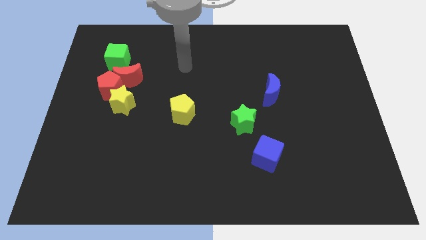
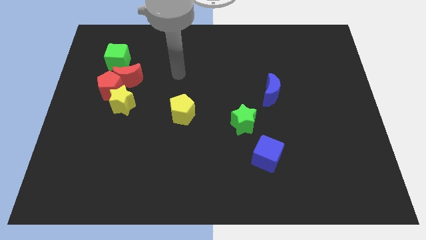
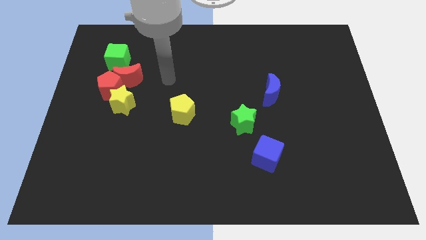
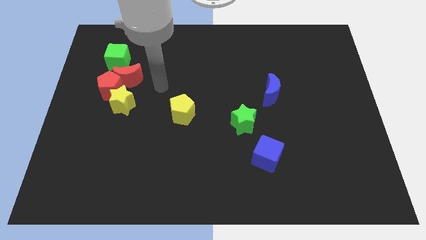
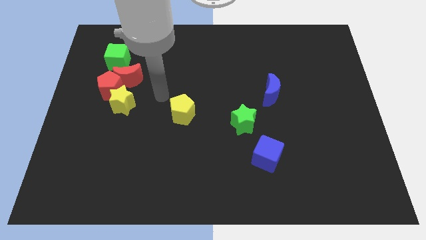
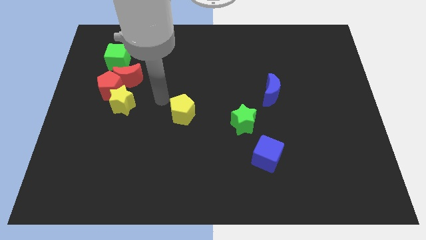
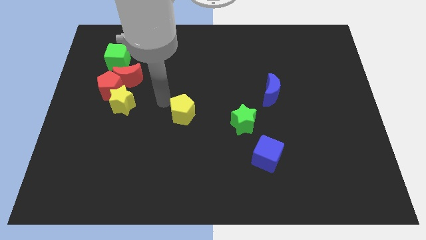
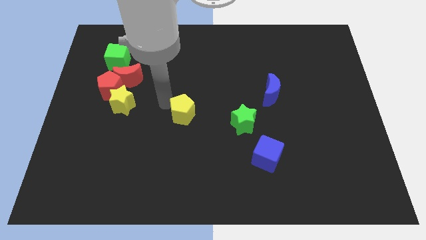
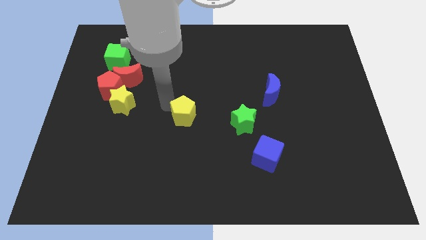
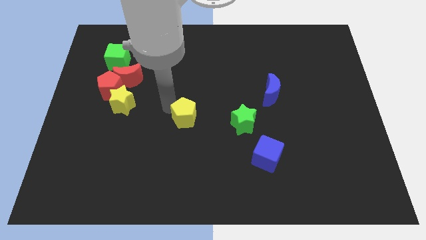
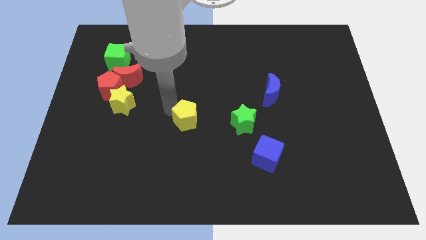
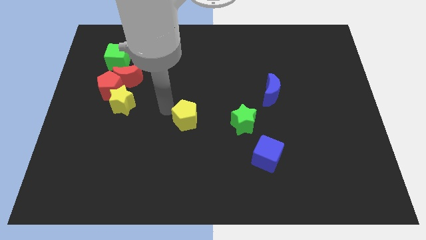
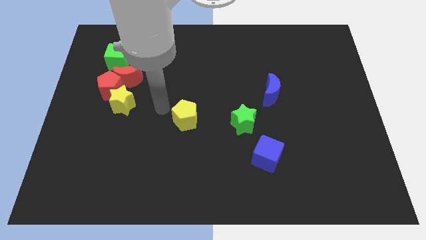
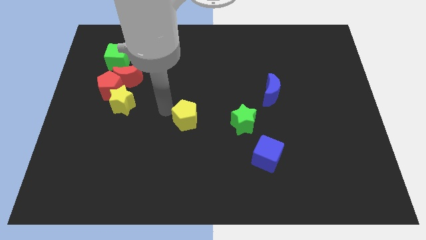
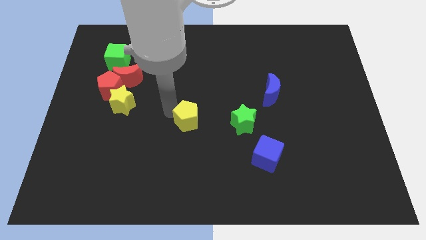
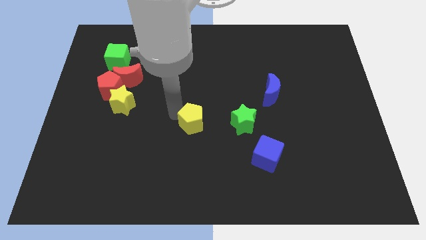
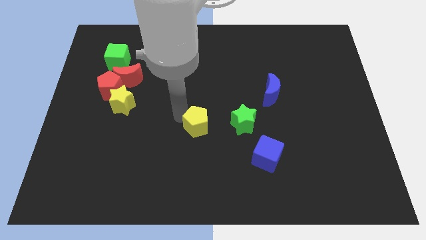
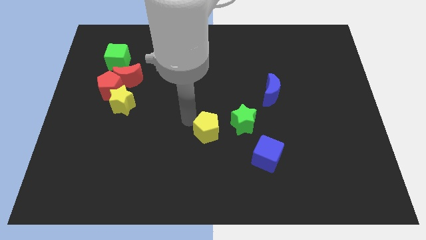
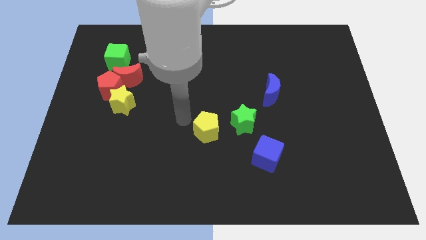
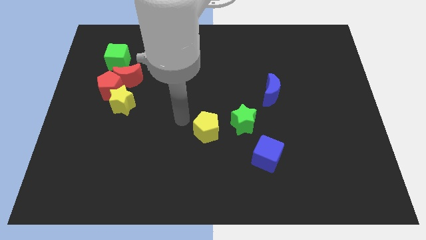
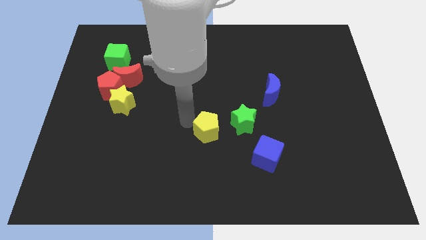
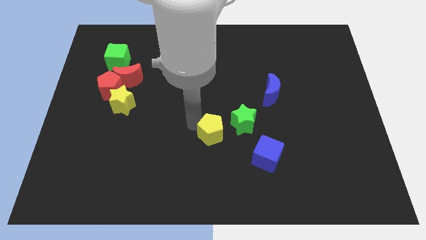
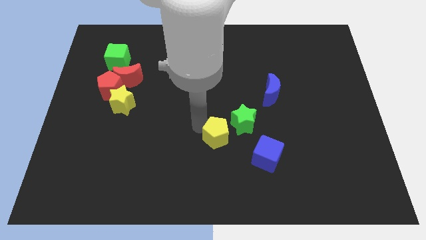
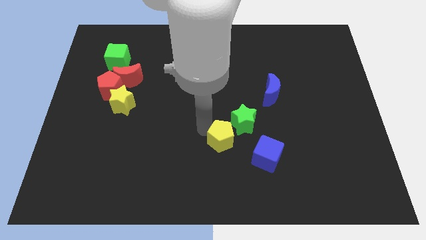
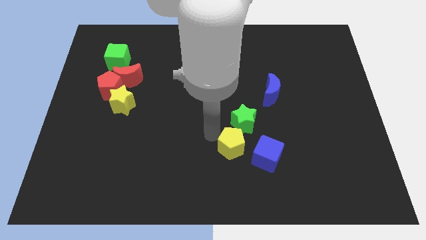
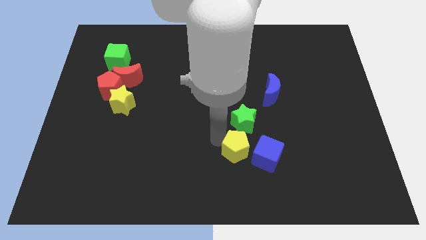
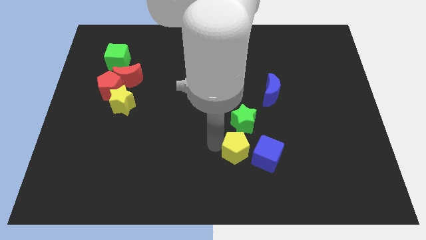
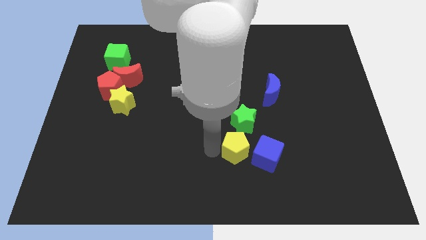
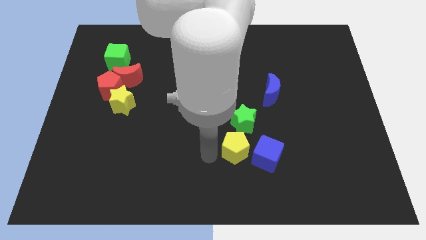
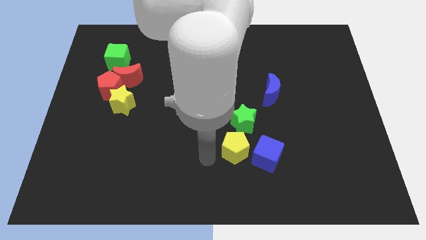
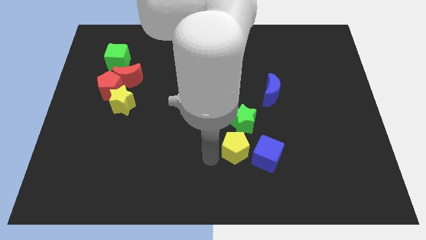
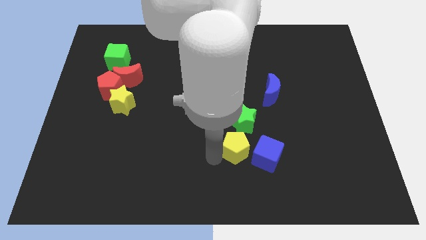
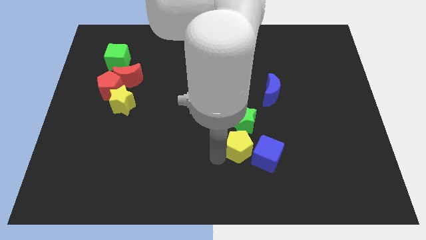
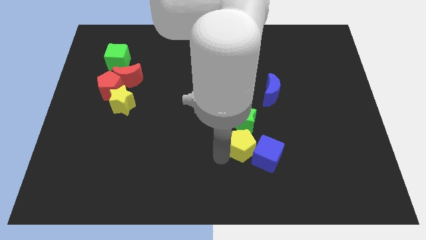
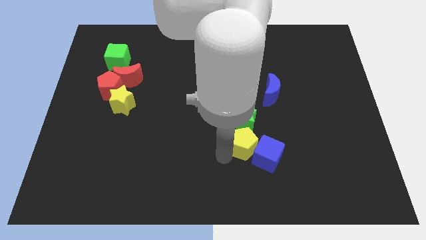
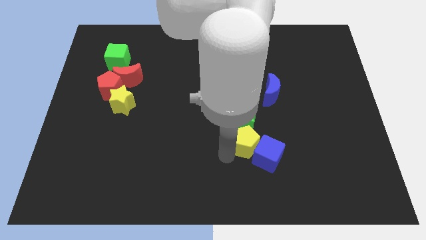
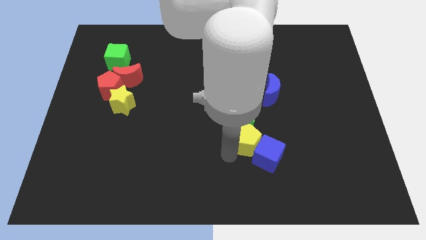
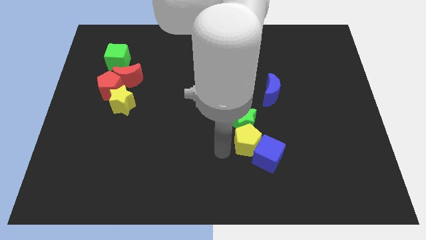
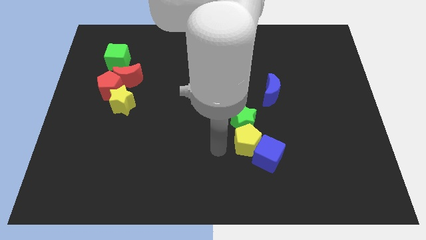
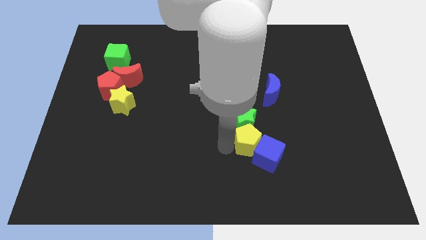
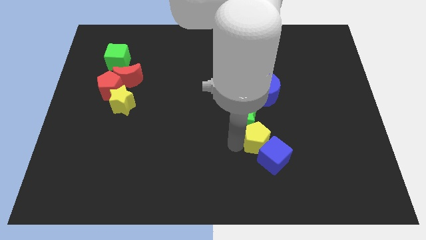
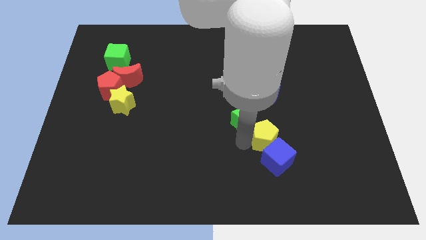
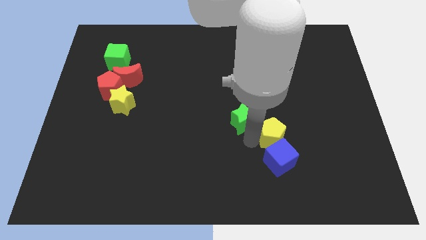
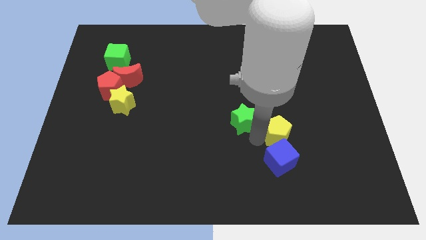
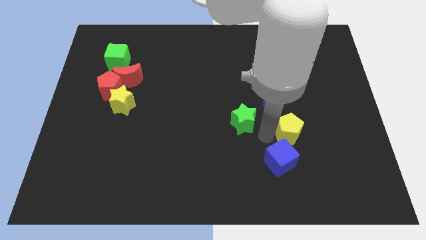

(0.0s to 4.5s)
slide the yellow pentagon to the right

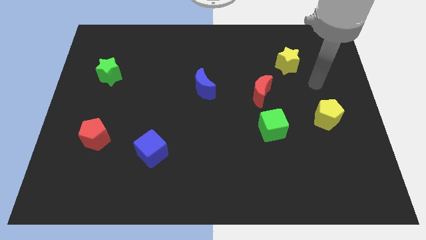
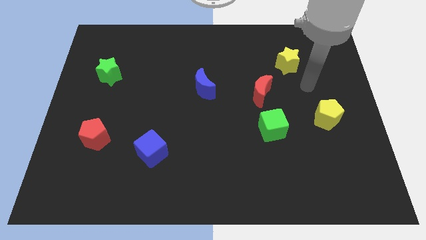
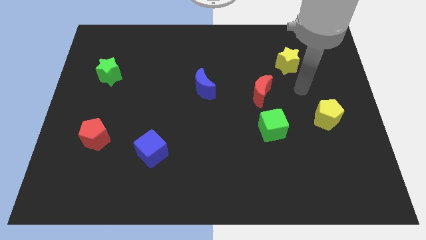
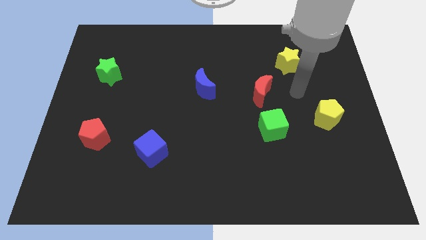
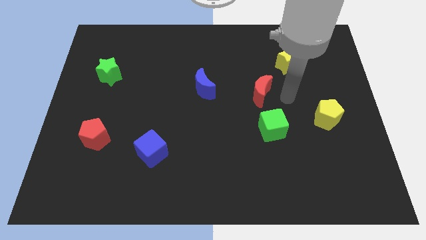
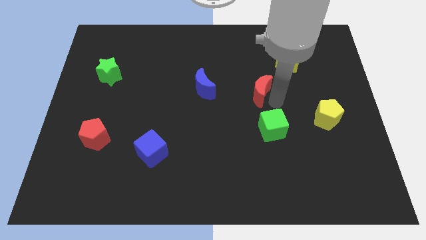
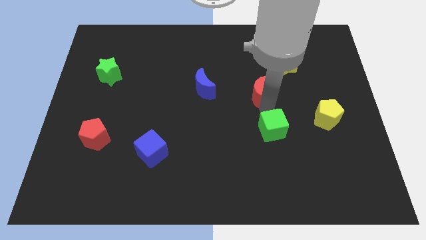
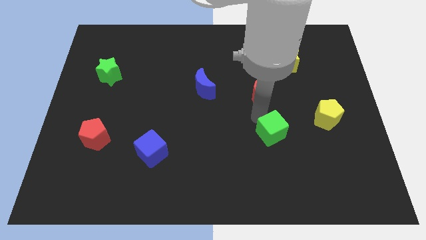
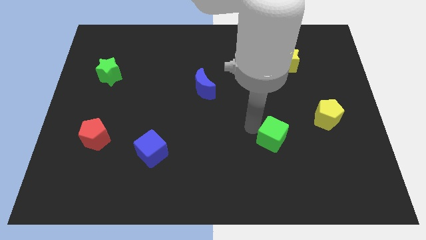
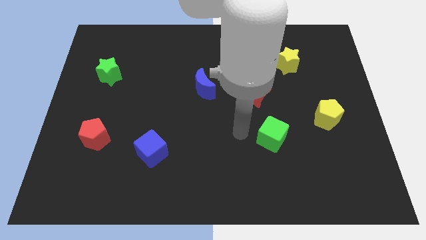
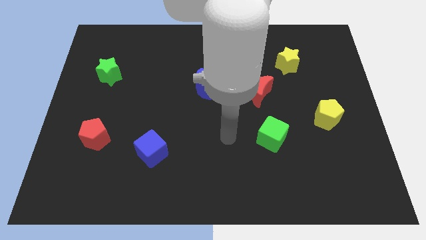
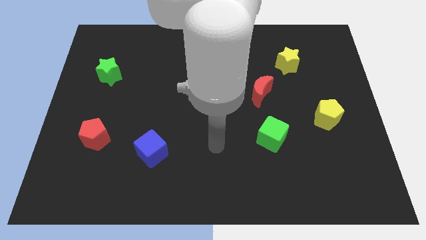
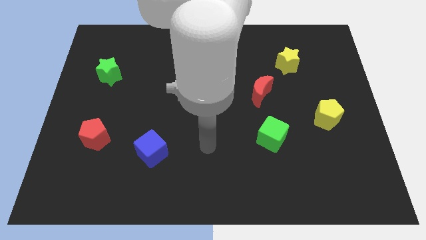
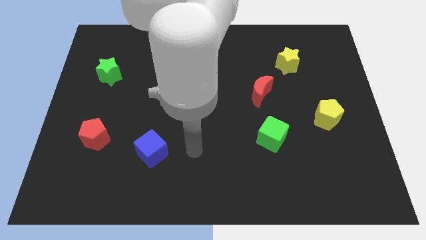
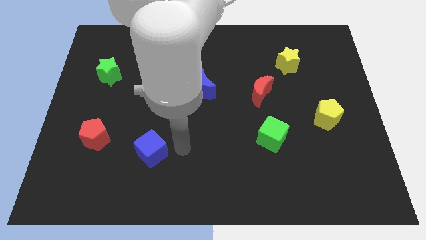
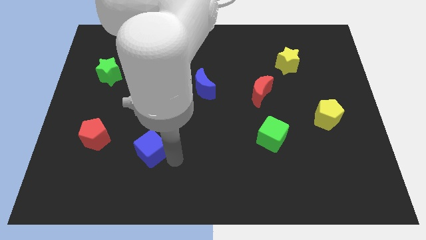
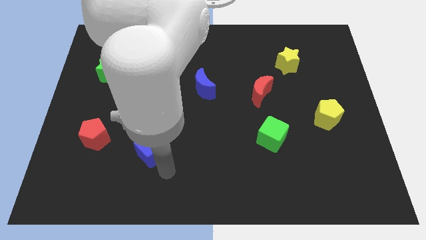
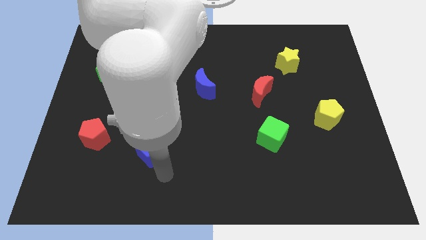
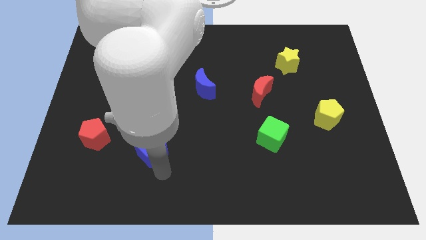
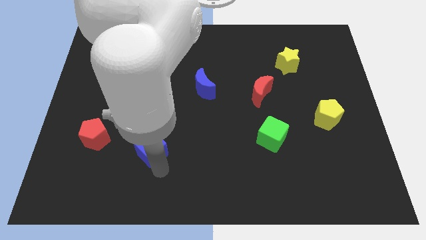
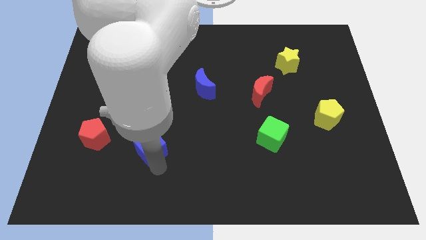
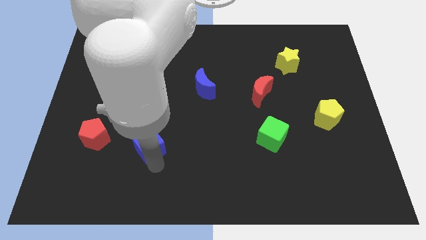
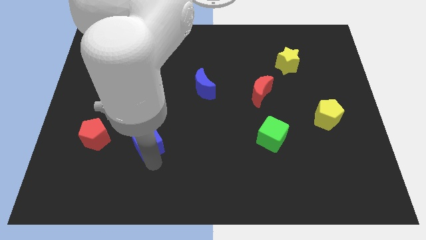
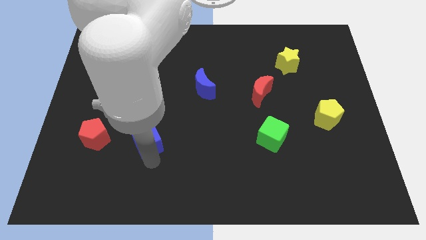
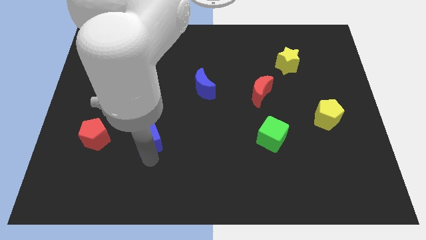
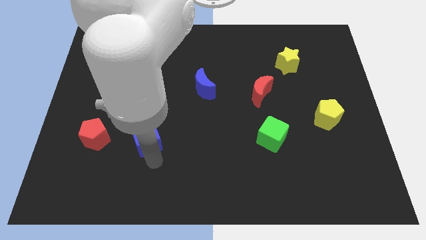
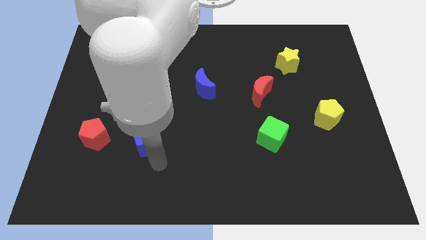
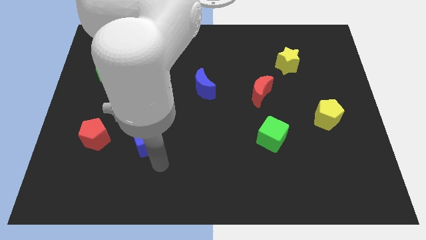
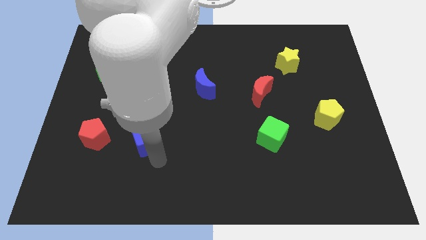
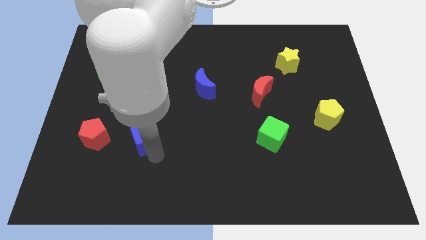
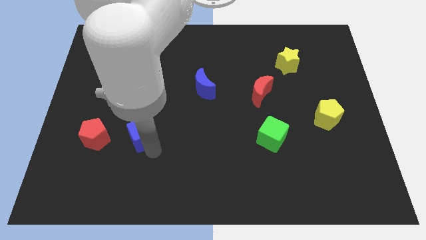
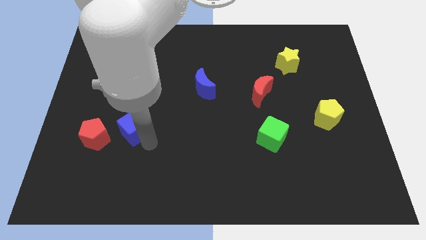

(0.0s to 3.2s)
move the blue cube a little upwards and left diagonally
